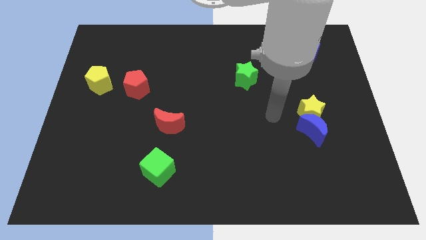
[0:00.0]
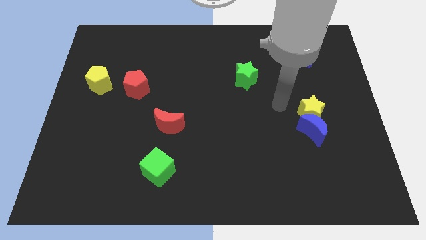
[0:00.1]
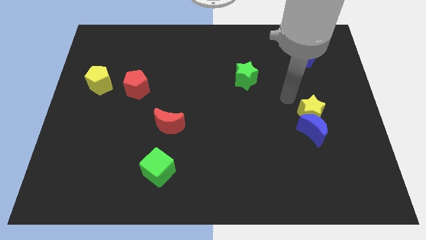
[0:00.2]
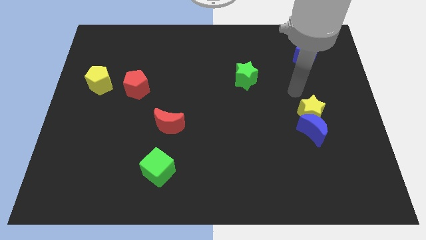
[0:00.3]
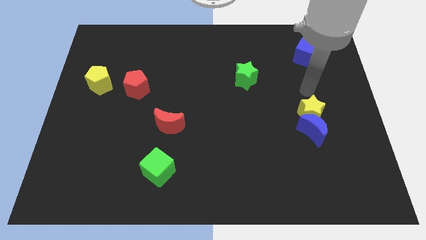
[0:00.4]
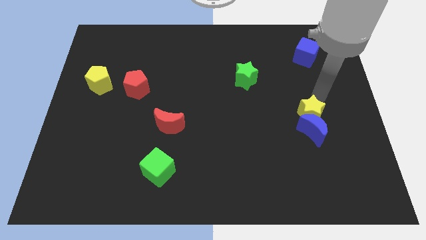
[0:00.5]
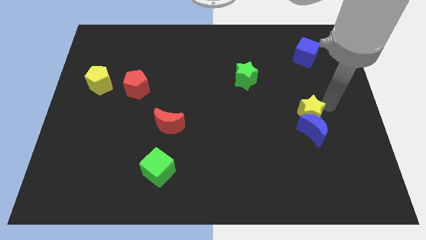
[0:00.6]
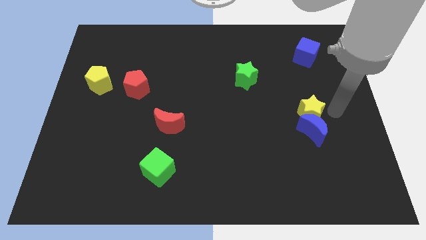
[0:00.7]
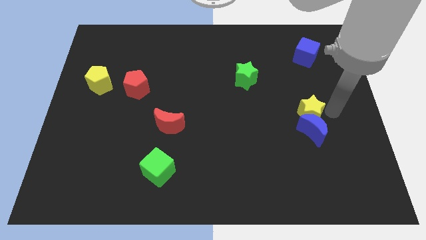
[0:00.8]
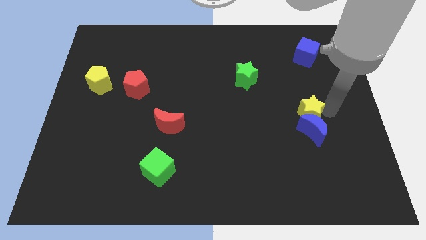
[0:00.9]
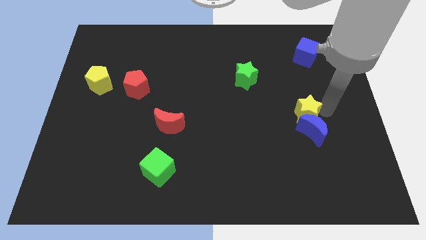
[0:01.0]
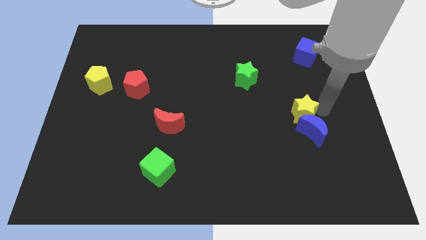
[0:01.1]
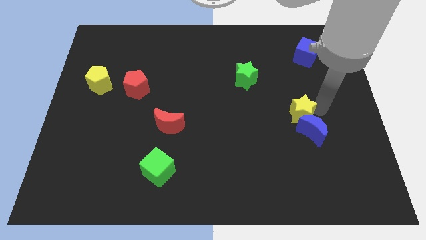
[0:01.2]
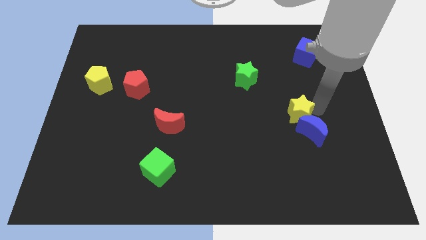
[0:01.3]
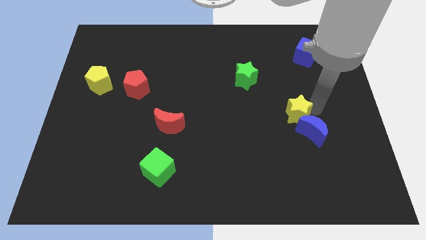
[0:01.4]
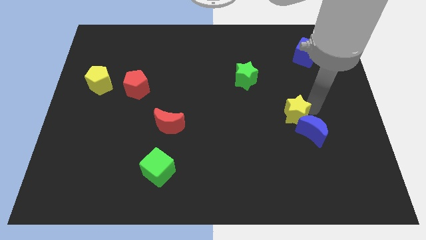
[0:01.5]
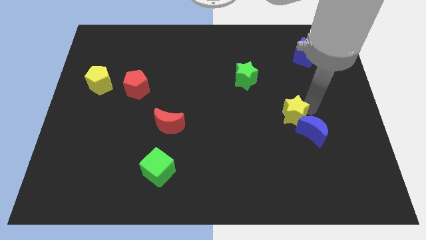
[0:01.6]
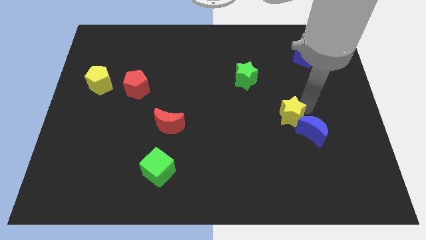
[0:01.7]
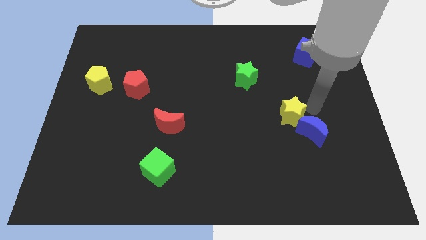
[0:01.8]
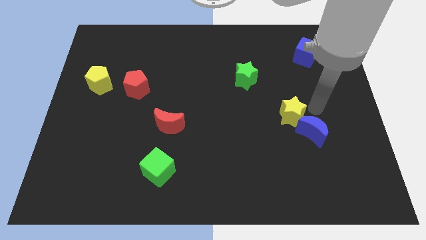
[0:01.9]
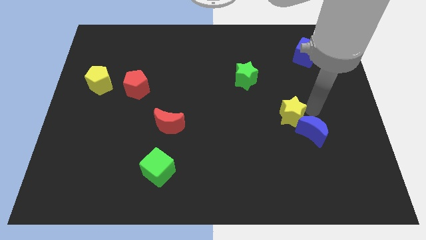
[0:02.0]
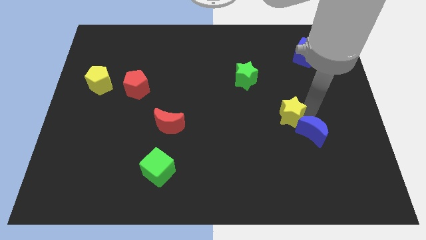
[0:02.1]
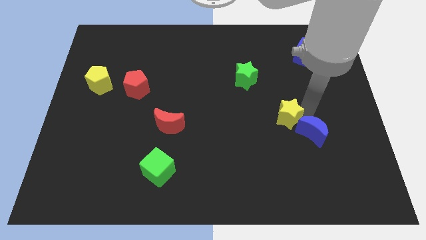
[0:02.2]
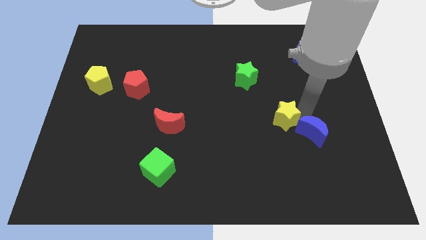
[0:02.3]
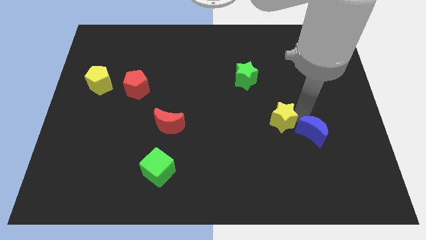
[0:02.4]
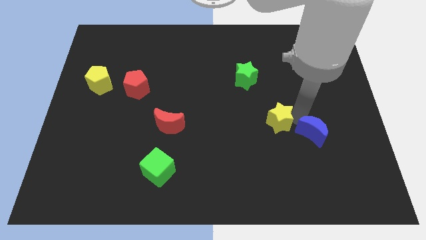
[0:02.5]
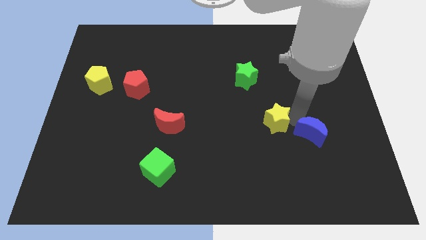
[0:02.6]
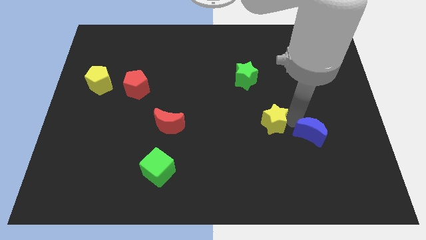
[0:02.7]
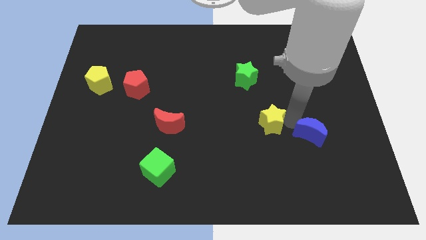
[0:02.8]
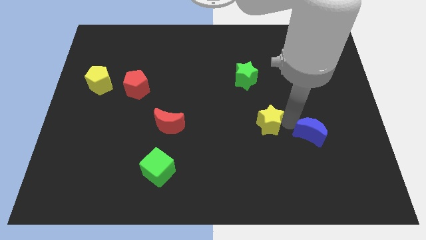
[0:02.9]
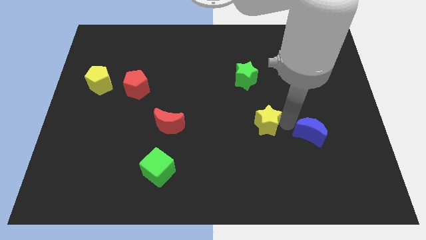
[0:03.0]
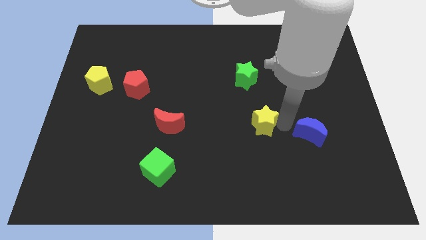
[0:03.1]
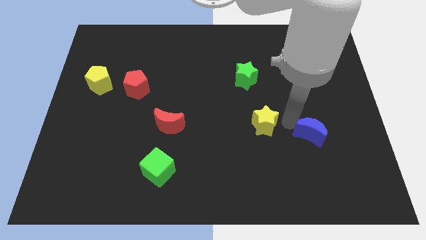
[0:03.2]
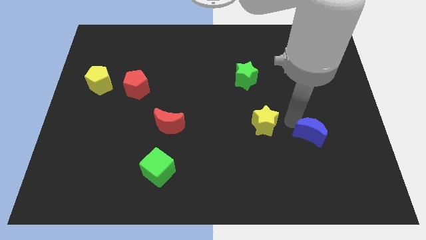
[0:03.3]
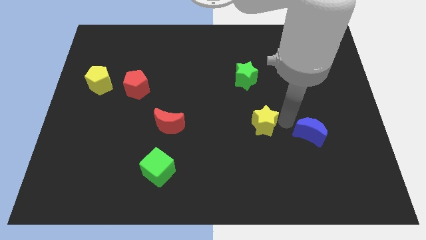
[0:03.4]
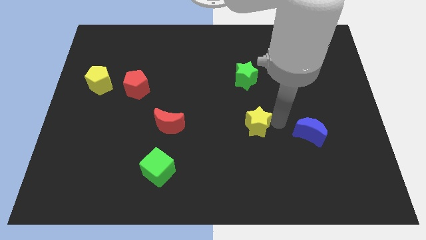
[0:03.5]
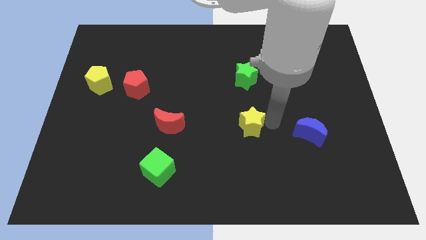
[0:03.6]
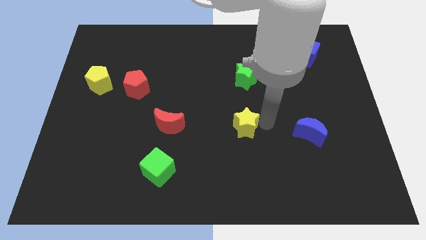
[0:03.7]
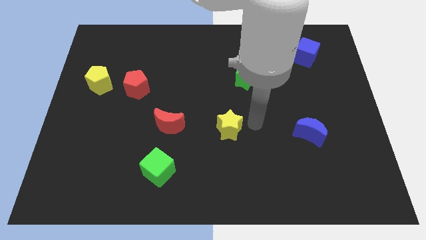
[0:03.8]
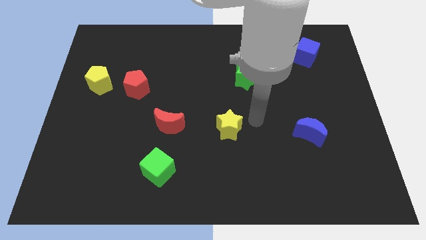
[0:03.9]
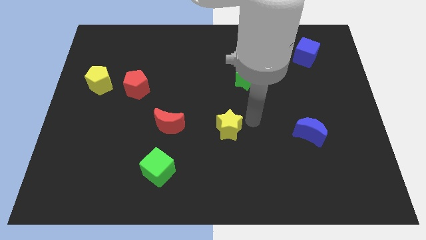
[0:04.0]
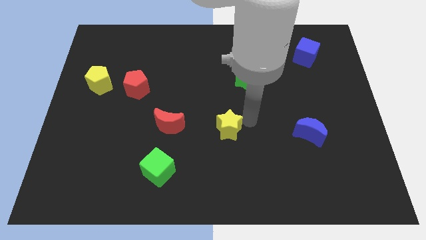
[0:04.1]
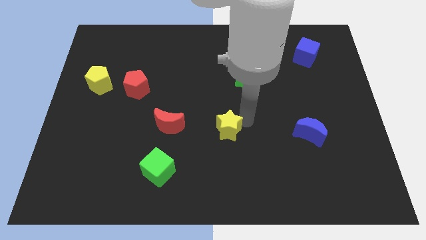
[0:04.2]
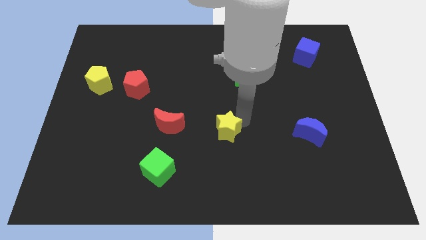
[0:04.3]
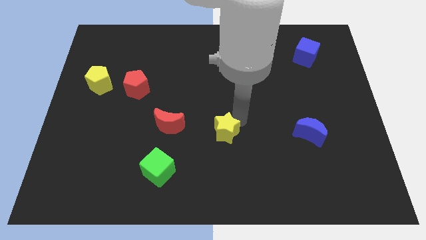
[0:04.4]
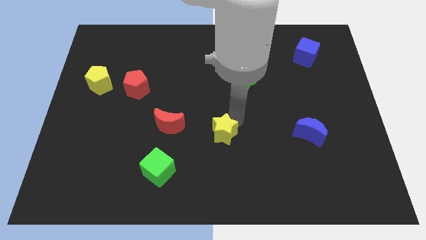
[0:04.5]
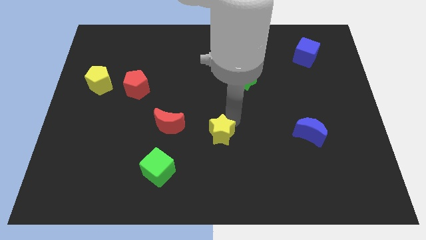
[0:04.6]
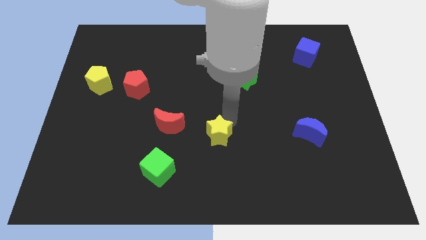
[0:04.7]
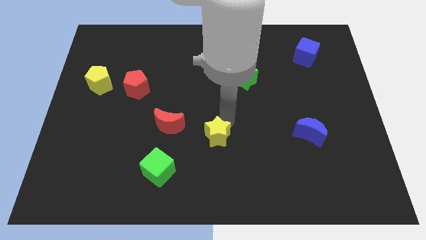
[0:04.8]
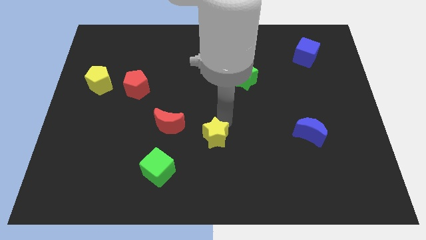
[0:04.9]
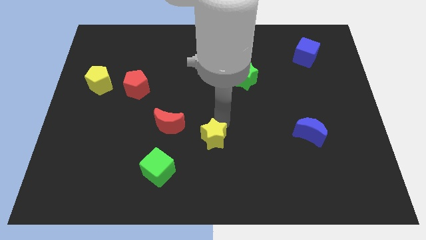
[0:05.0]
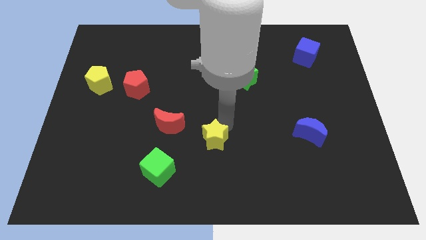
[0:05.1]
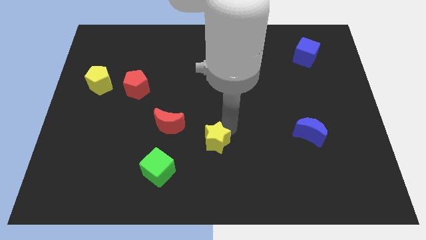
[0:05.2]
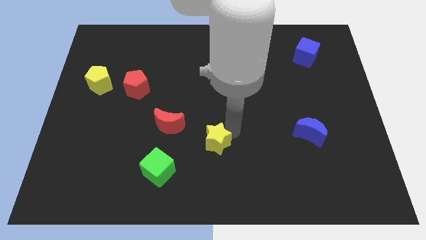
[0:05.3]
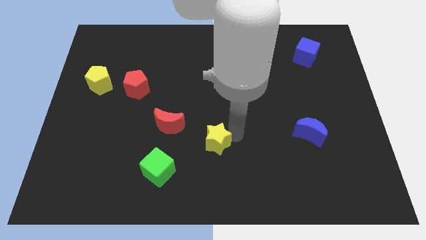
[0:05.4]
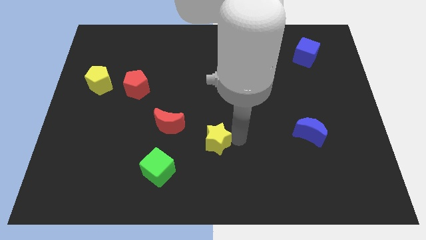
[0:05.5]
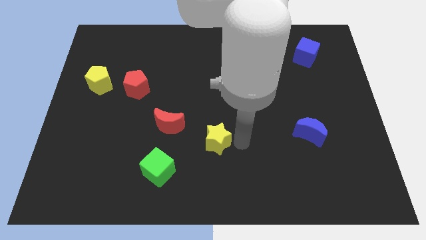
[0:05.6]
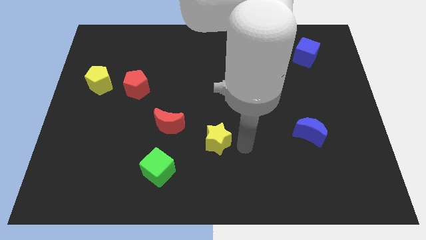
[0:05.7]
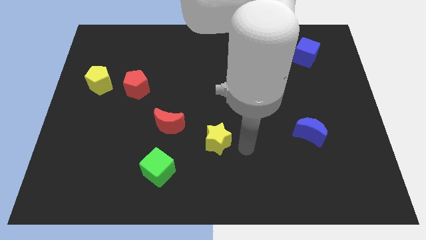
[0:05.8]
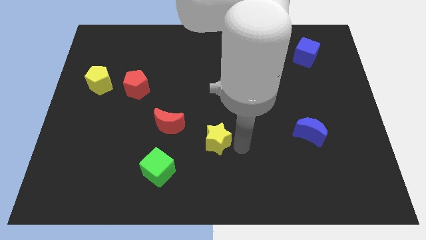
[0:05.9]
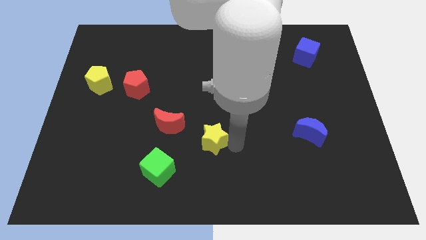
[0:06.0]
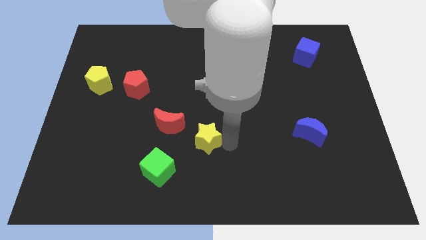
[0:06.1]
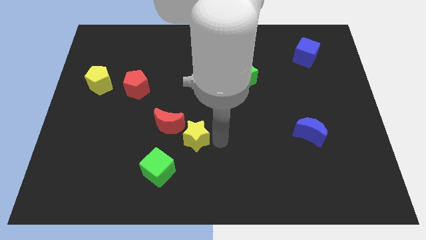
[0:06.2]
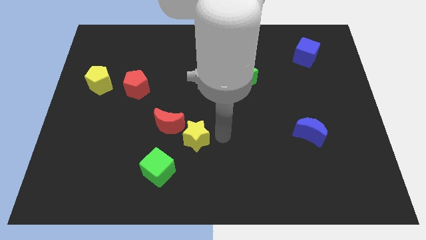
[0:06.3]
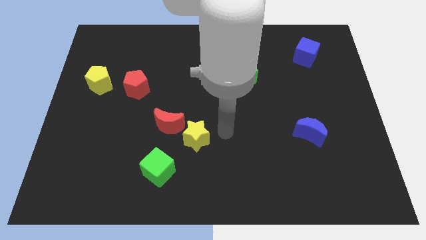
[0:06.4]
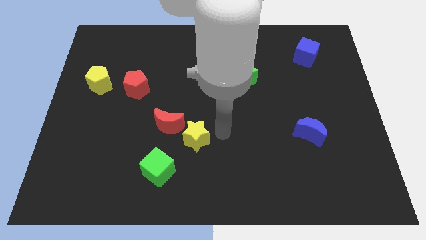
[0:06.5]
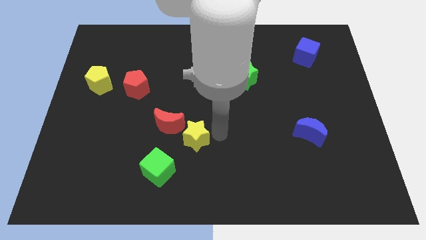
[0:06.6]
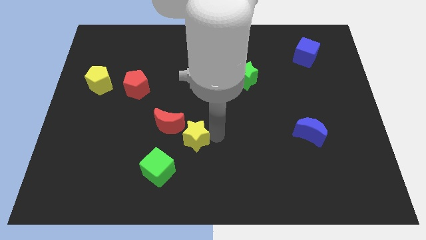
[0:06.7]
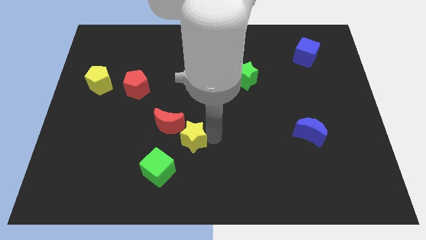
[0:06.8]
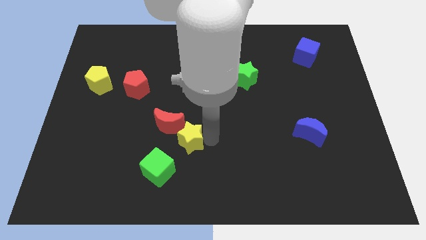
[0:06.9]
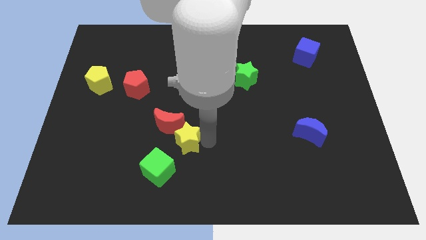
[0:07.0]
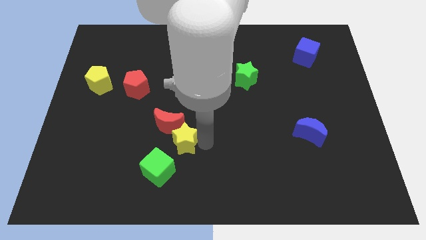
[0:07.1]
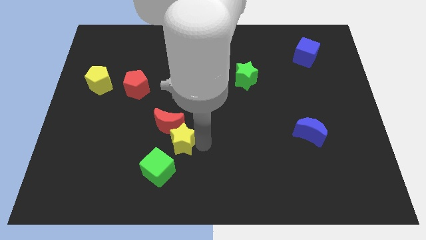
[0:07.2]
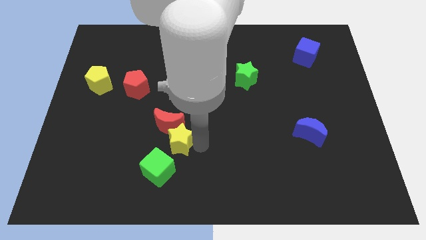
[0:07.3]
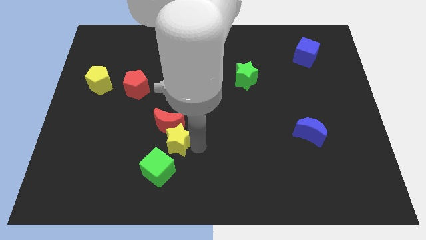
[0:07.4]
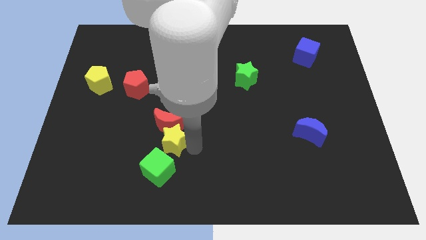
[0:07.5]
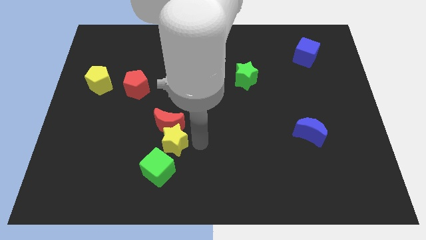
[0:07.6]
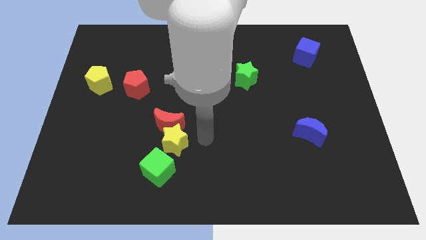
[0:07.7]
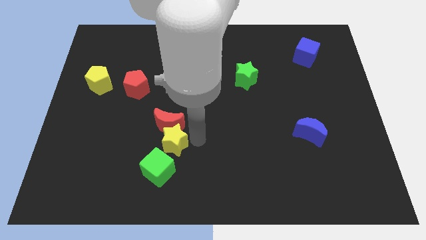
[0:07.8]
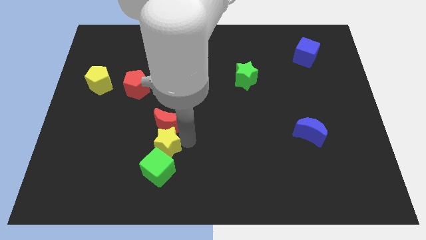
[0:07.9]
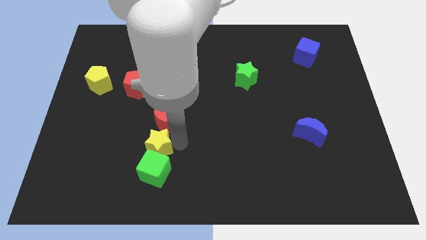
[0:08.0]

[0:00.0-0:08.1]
put the yellow star diagonally up and to the left of the green cube
